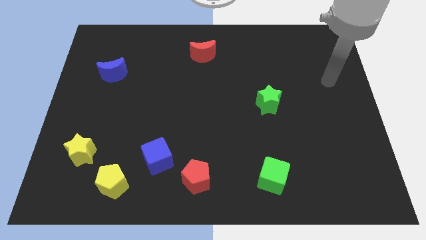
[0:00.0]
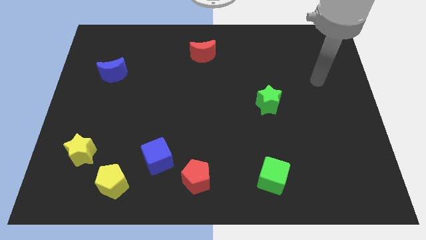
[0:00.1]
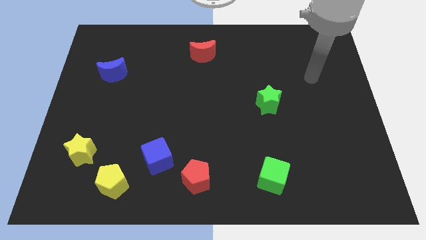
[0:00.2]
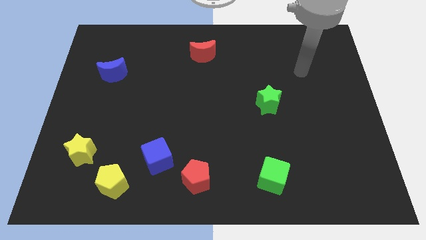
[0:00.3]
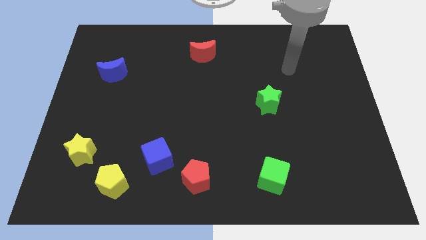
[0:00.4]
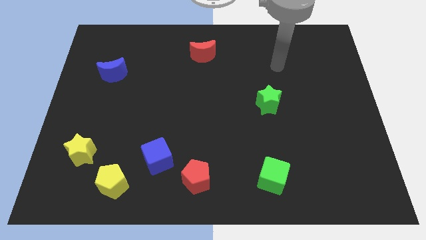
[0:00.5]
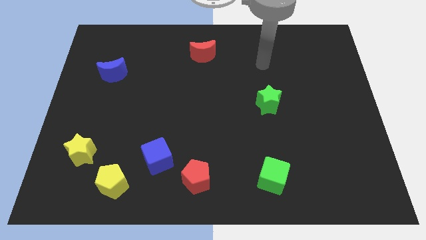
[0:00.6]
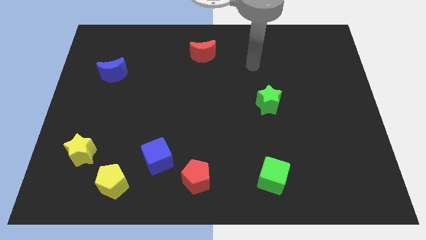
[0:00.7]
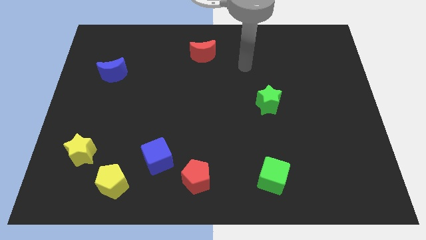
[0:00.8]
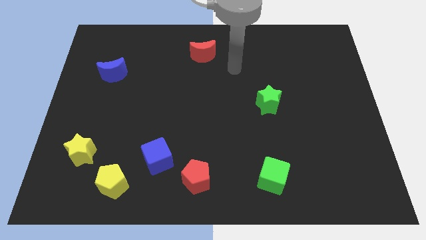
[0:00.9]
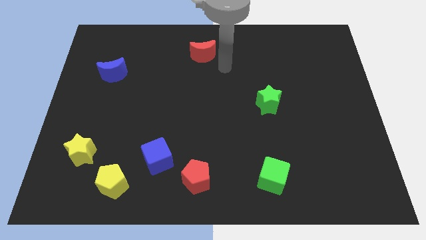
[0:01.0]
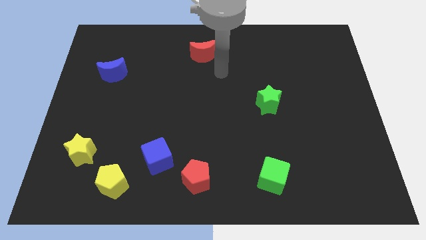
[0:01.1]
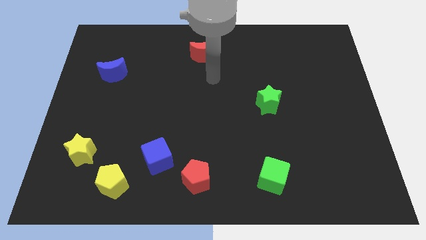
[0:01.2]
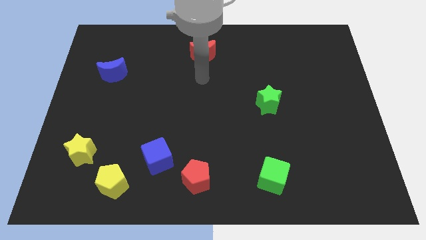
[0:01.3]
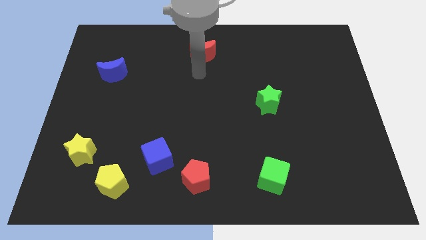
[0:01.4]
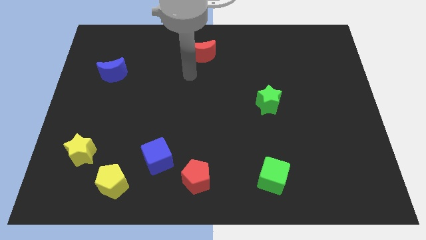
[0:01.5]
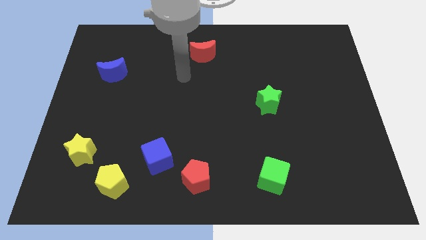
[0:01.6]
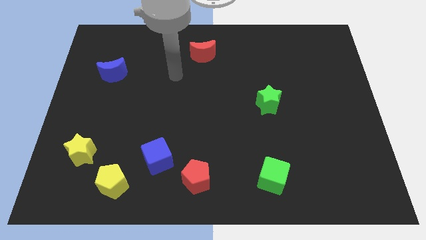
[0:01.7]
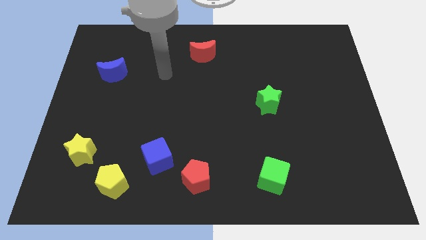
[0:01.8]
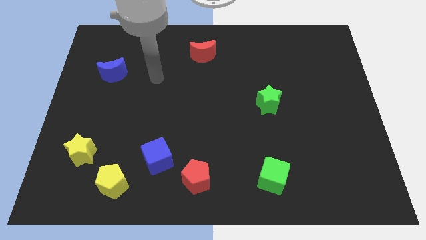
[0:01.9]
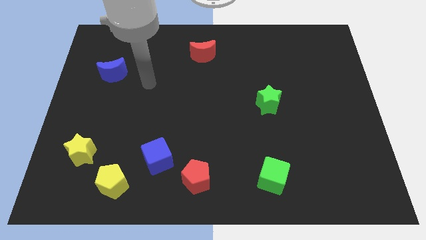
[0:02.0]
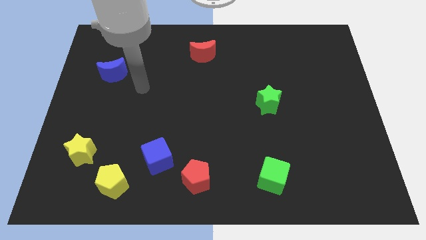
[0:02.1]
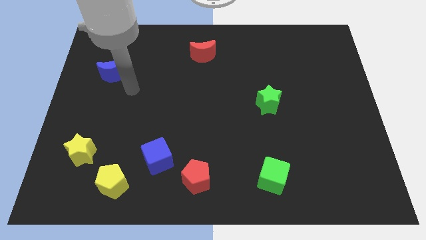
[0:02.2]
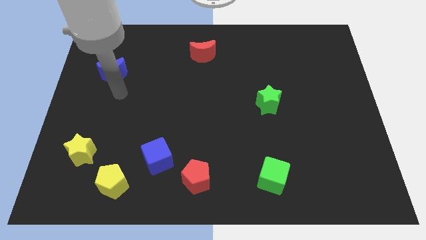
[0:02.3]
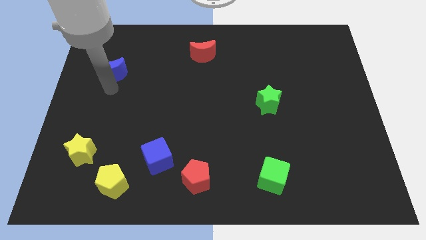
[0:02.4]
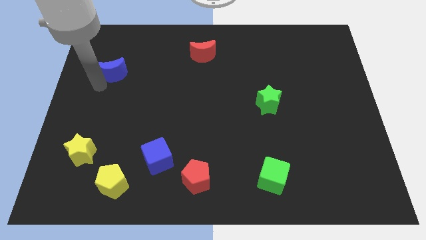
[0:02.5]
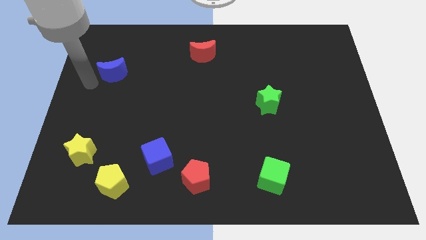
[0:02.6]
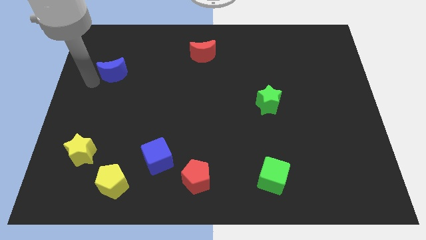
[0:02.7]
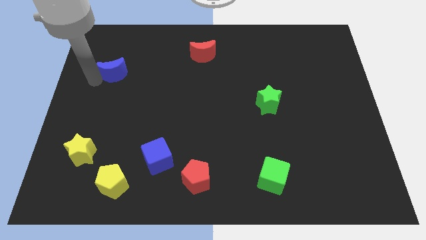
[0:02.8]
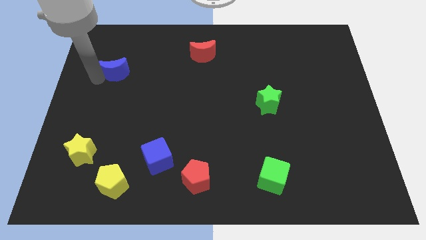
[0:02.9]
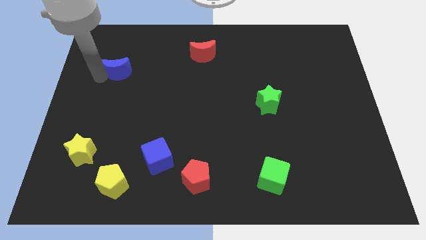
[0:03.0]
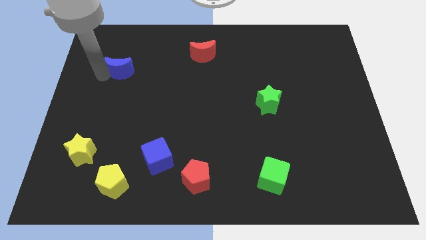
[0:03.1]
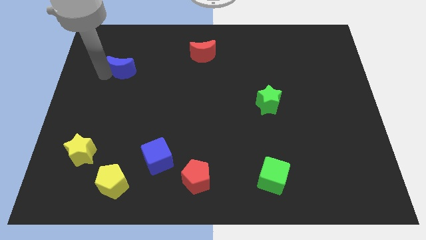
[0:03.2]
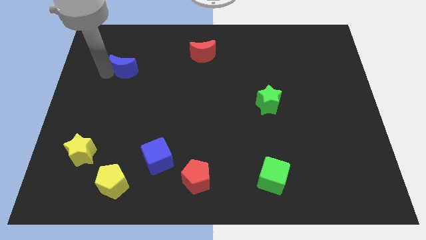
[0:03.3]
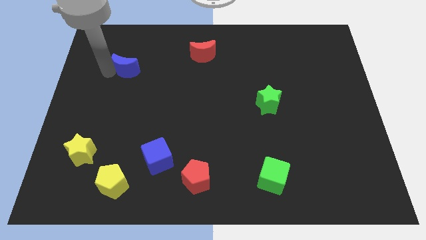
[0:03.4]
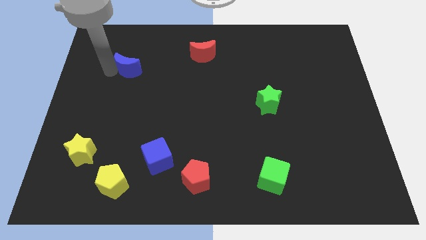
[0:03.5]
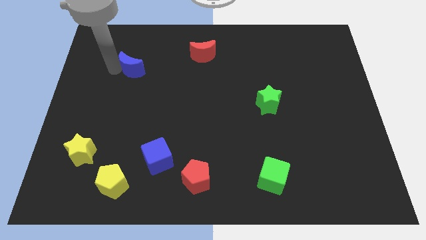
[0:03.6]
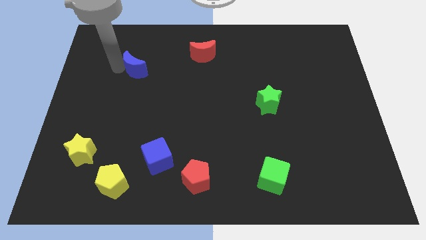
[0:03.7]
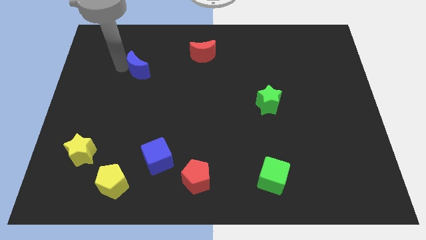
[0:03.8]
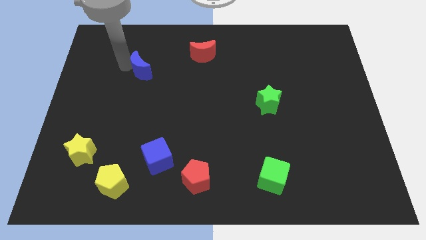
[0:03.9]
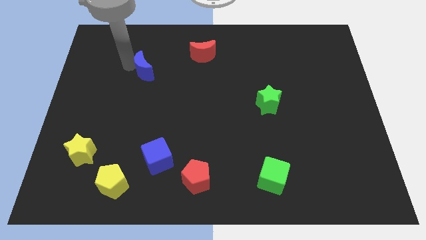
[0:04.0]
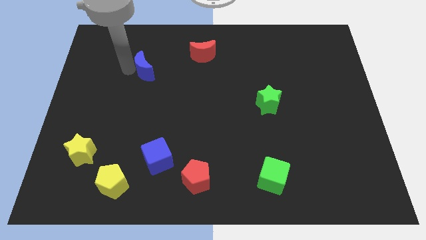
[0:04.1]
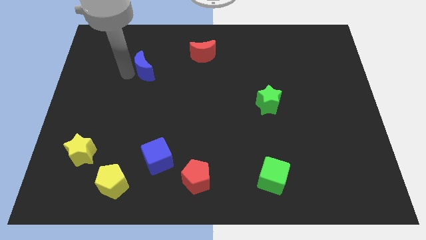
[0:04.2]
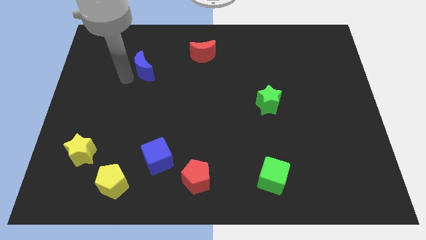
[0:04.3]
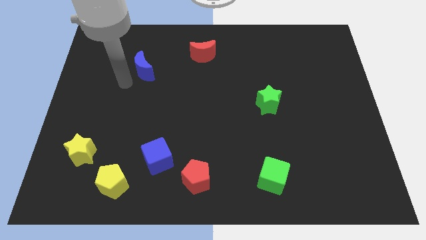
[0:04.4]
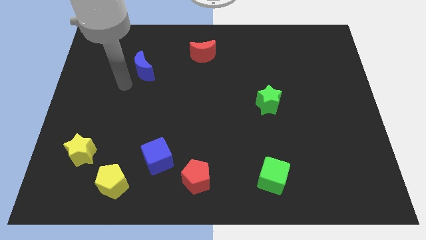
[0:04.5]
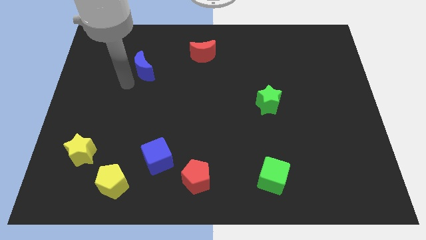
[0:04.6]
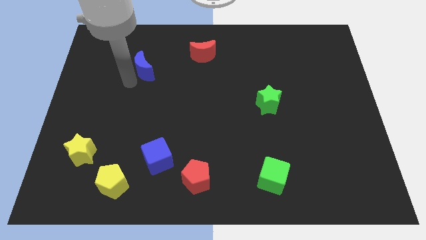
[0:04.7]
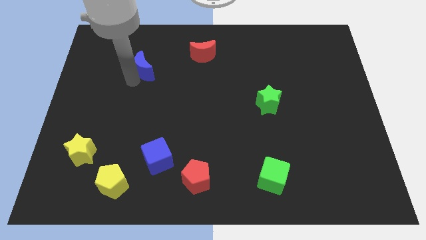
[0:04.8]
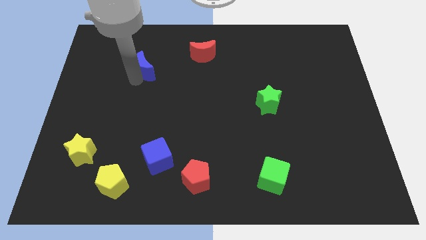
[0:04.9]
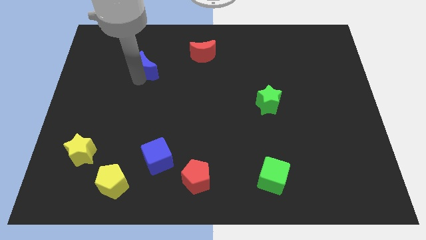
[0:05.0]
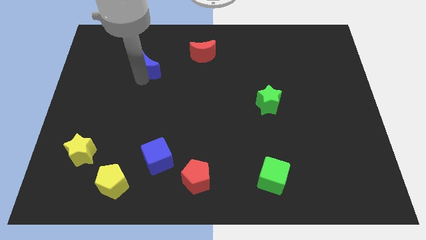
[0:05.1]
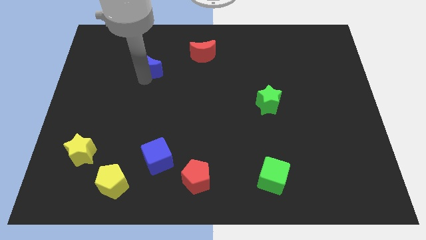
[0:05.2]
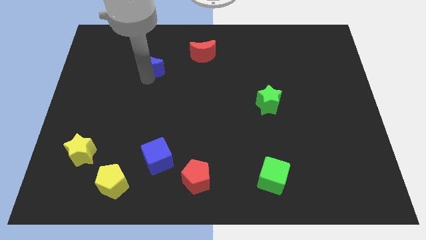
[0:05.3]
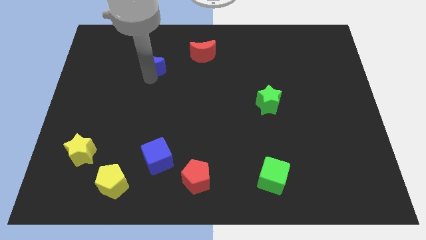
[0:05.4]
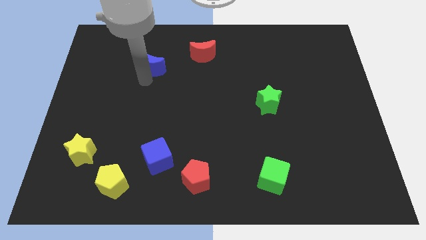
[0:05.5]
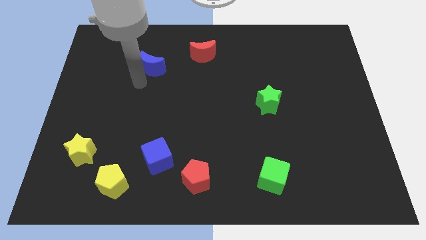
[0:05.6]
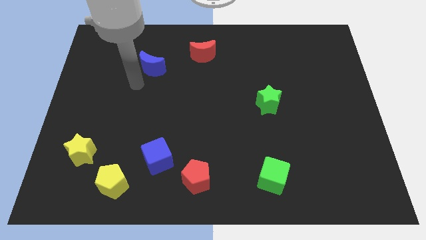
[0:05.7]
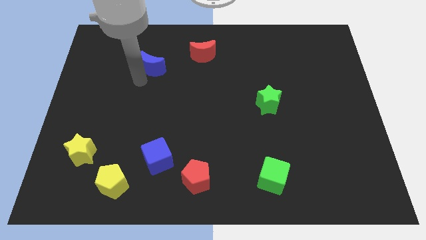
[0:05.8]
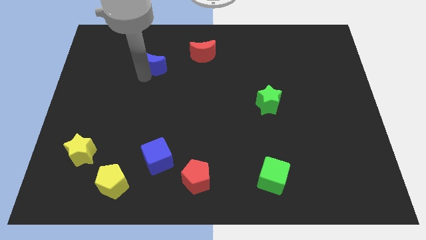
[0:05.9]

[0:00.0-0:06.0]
move the blue moon just left of the red moon

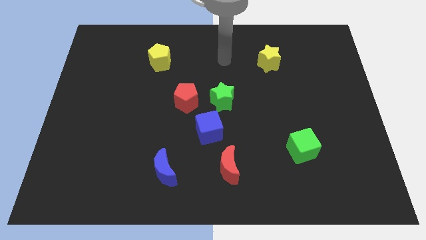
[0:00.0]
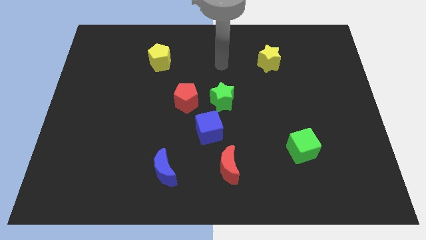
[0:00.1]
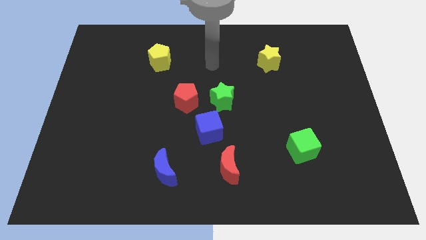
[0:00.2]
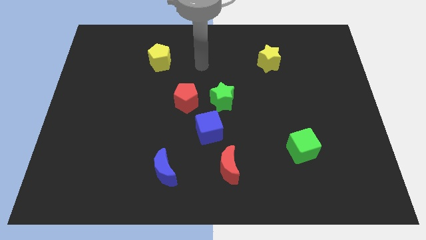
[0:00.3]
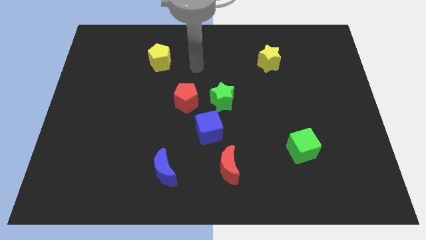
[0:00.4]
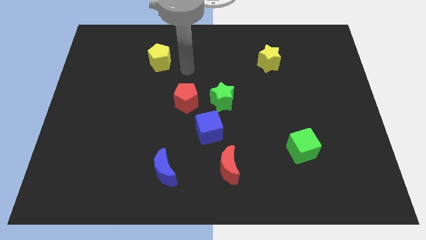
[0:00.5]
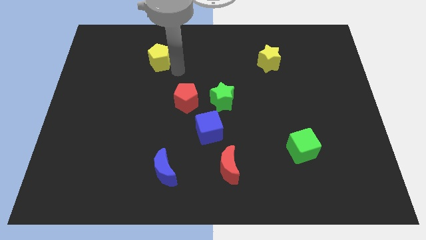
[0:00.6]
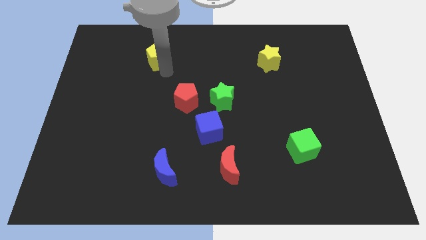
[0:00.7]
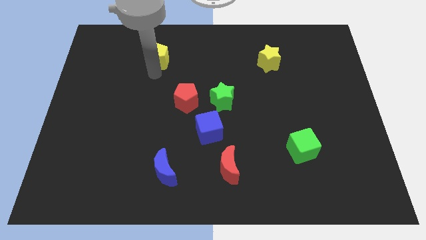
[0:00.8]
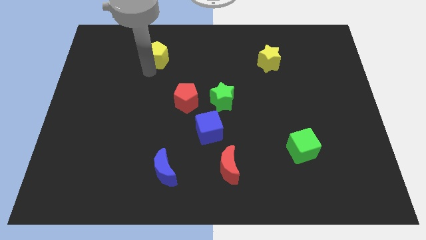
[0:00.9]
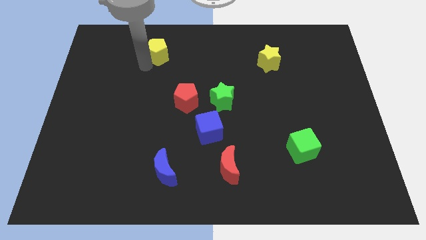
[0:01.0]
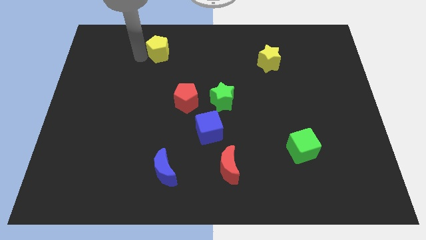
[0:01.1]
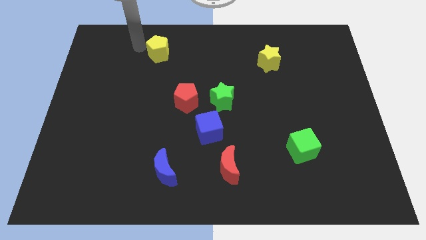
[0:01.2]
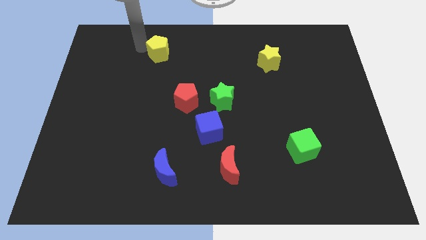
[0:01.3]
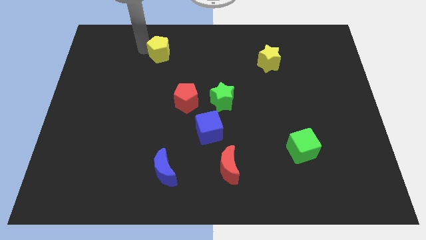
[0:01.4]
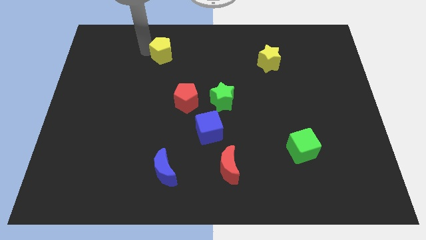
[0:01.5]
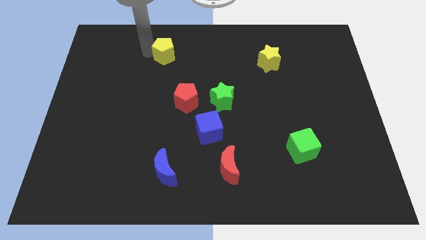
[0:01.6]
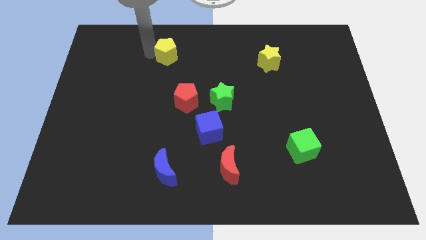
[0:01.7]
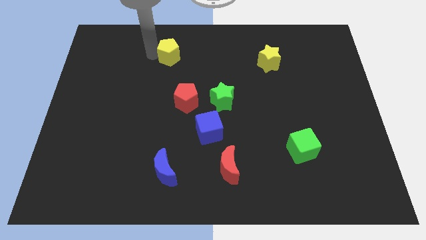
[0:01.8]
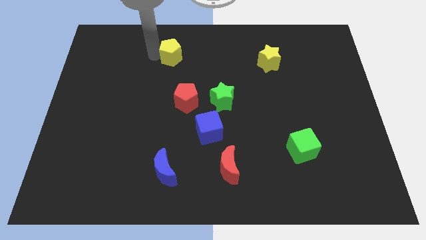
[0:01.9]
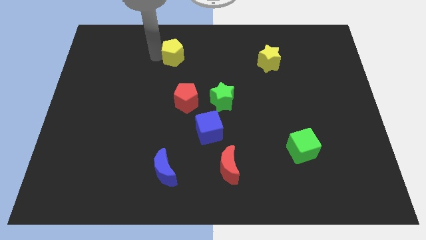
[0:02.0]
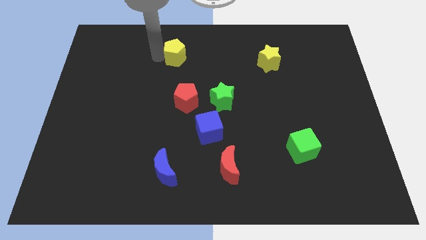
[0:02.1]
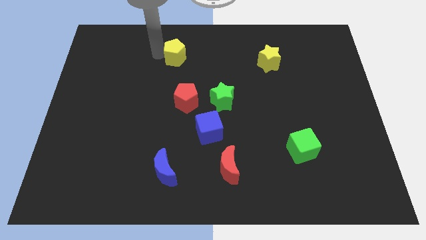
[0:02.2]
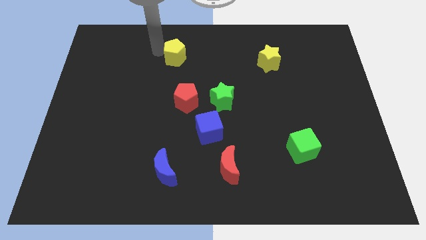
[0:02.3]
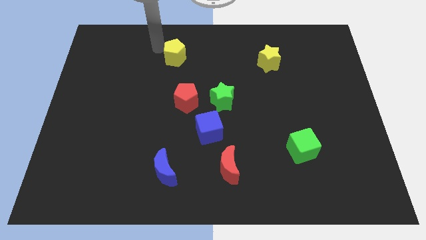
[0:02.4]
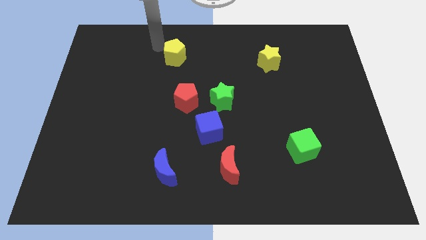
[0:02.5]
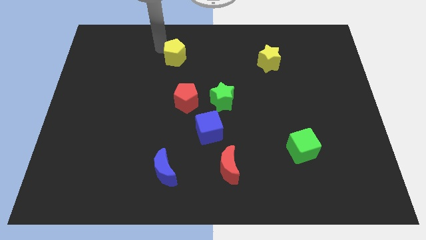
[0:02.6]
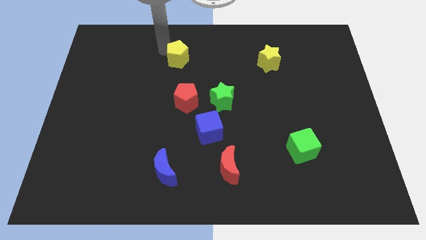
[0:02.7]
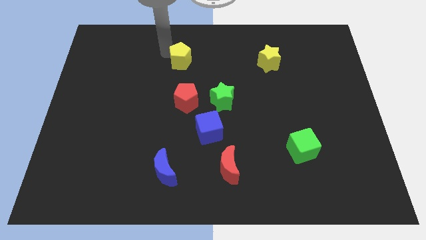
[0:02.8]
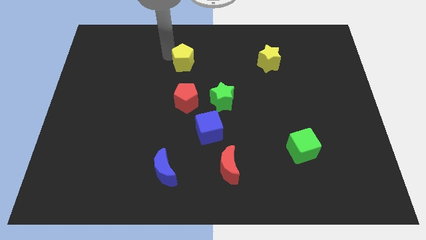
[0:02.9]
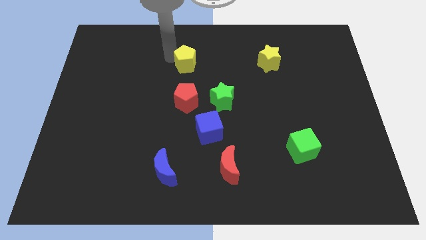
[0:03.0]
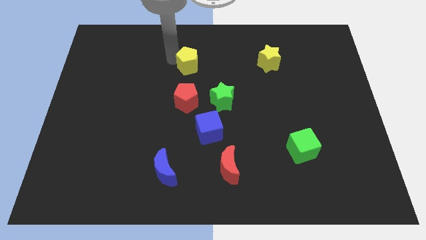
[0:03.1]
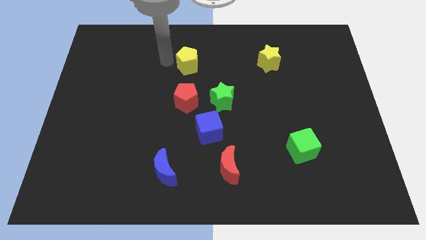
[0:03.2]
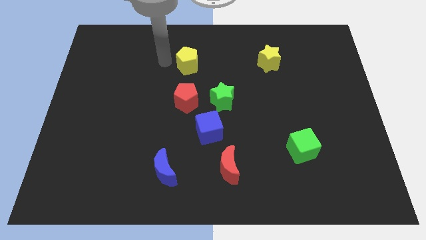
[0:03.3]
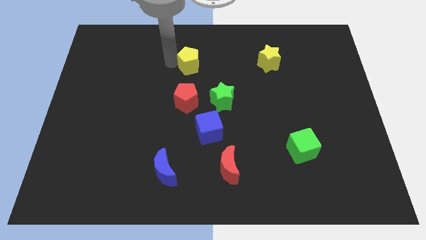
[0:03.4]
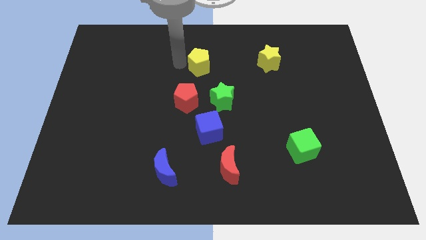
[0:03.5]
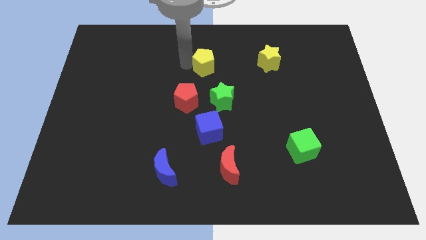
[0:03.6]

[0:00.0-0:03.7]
push the yellow pentagon above the green star
